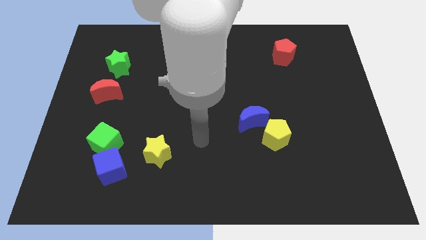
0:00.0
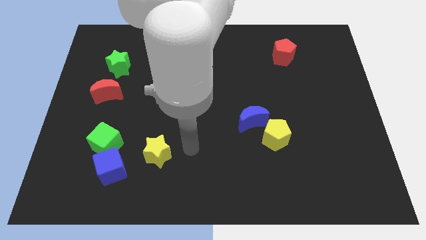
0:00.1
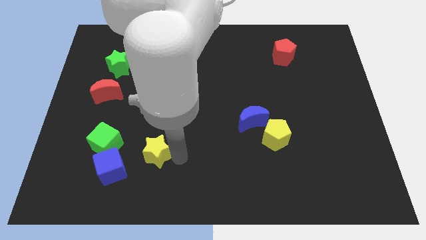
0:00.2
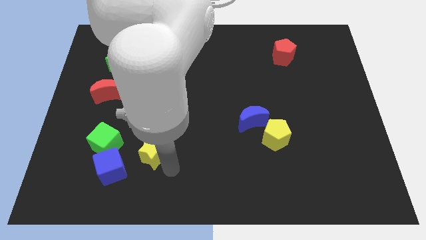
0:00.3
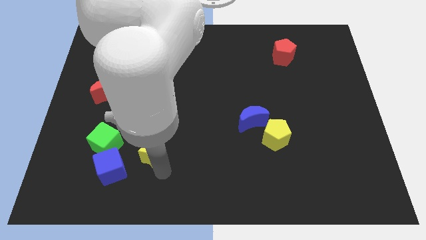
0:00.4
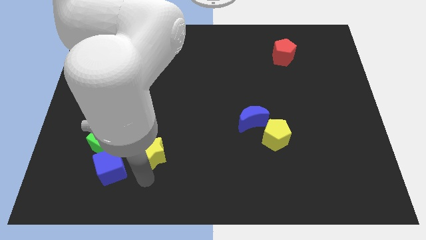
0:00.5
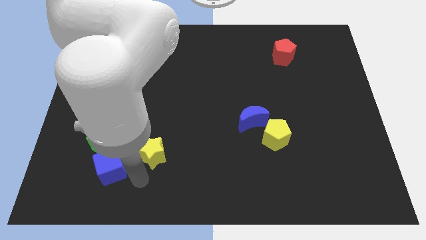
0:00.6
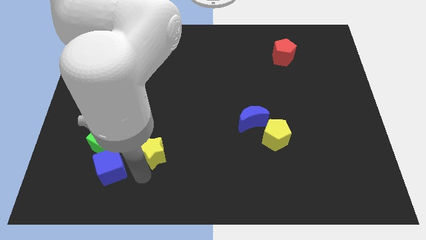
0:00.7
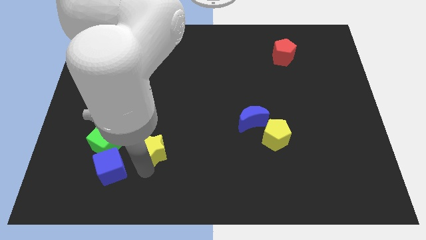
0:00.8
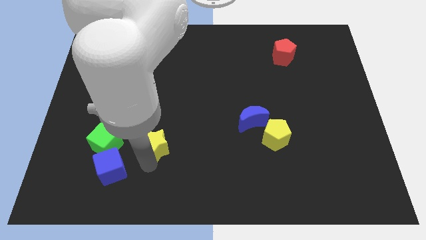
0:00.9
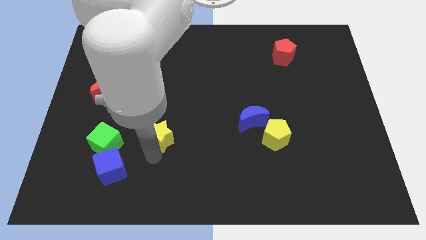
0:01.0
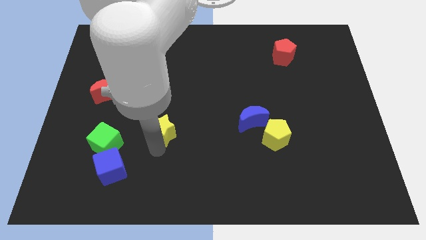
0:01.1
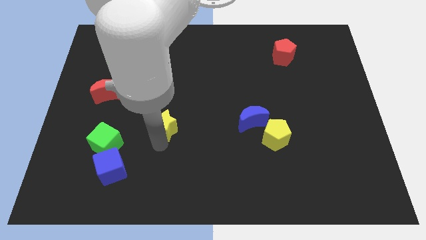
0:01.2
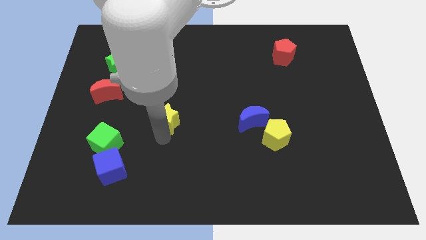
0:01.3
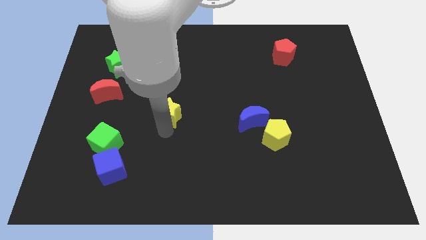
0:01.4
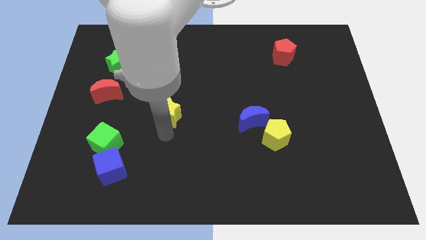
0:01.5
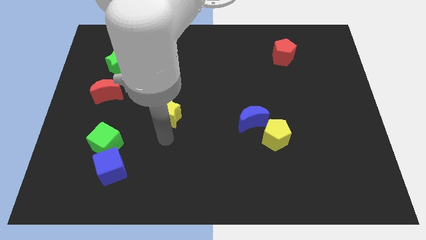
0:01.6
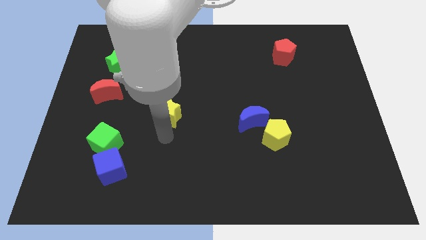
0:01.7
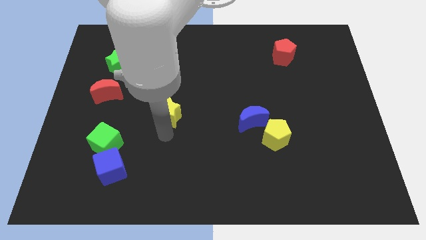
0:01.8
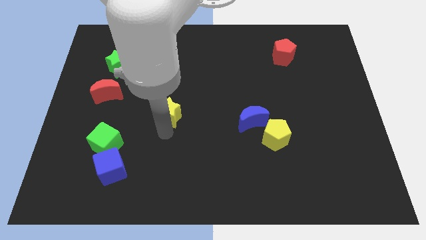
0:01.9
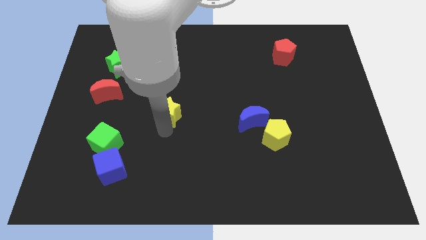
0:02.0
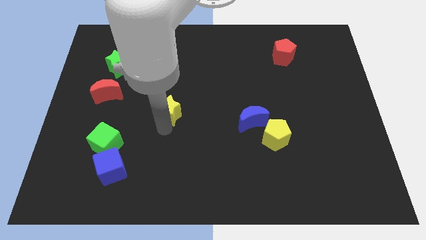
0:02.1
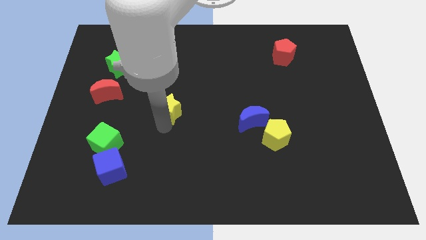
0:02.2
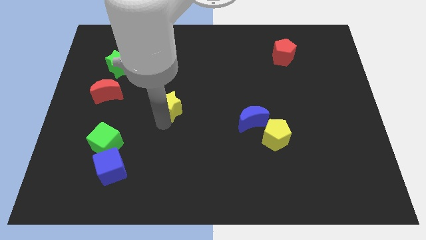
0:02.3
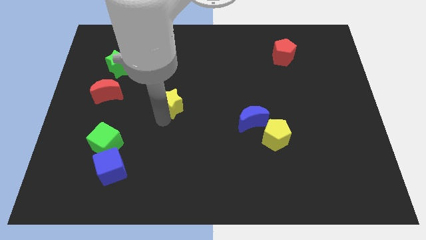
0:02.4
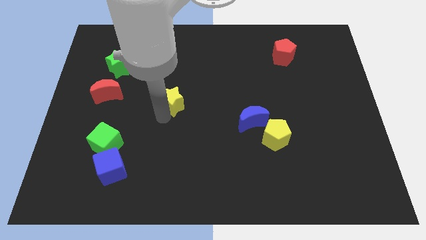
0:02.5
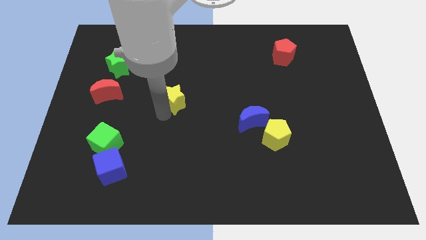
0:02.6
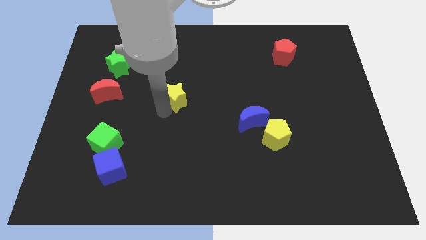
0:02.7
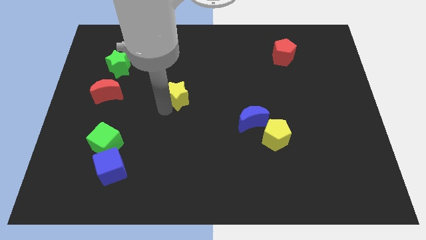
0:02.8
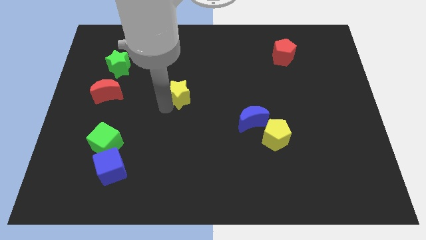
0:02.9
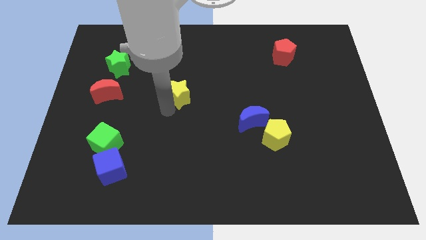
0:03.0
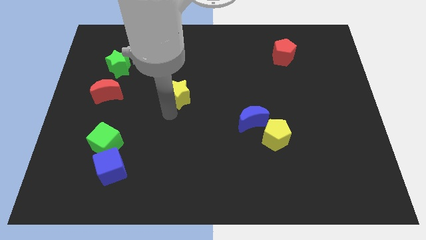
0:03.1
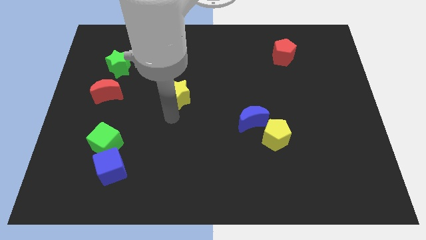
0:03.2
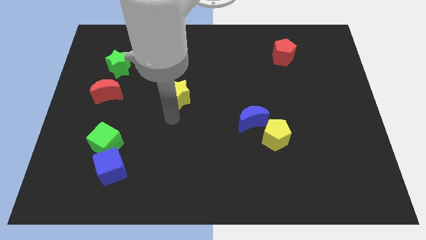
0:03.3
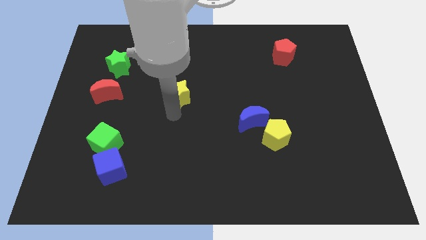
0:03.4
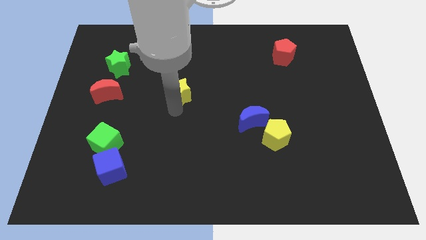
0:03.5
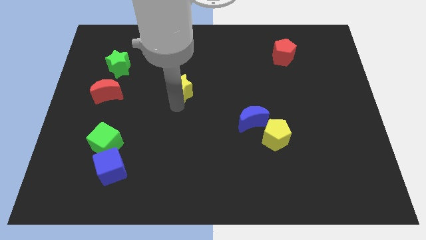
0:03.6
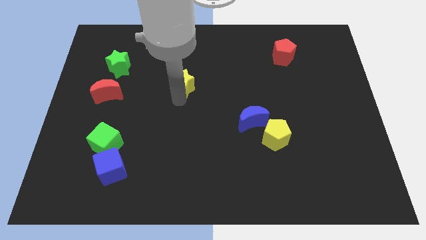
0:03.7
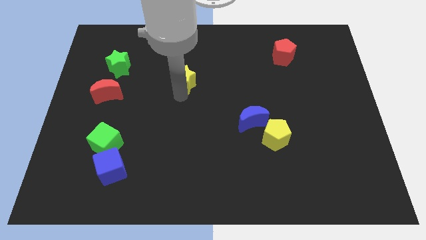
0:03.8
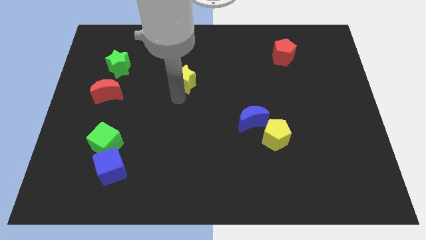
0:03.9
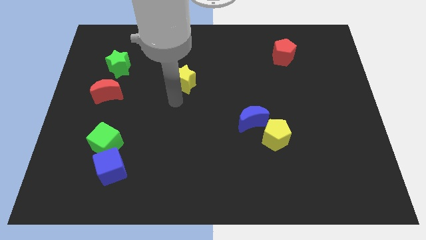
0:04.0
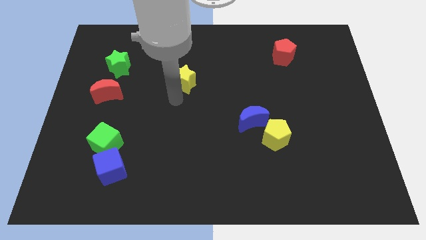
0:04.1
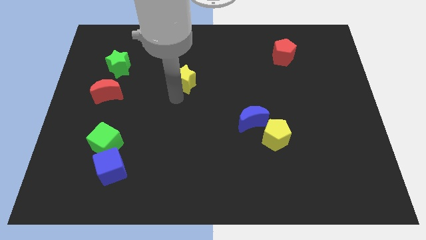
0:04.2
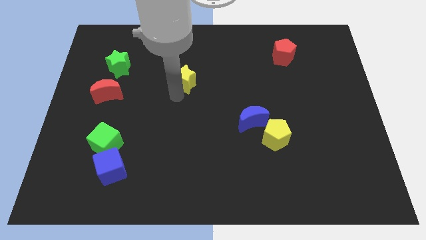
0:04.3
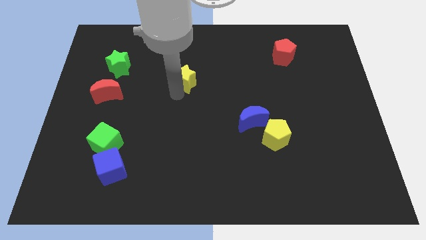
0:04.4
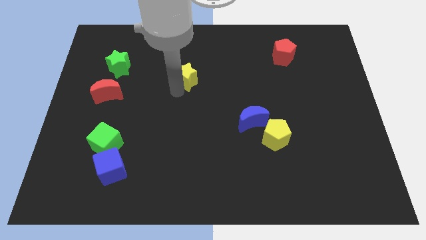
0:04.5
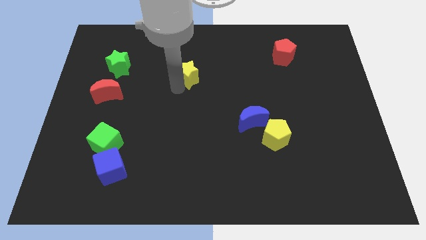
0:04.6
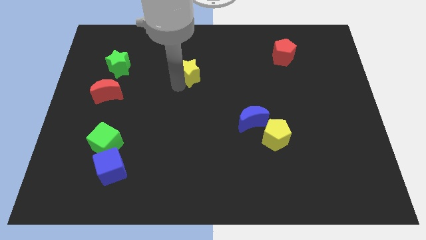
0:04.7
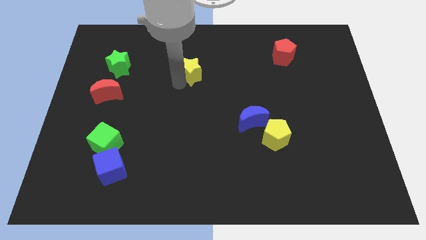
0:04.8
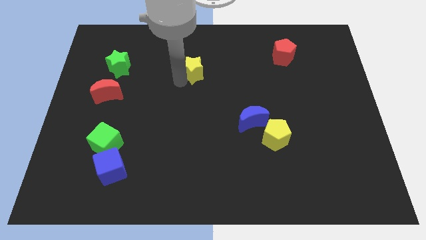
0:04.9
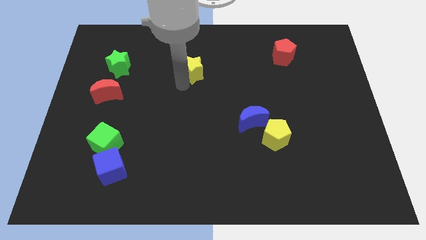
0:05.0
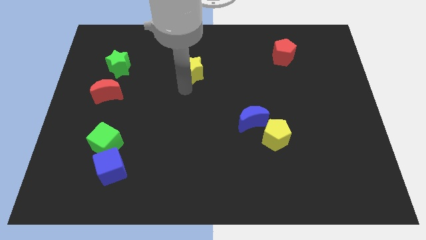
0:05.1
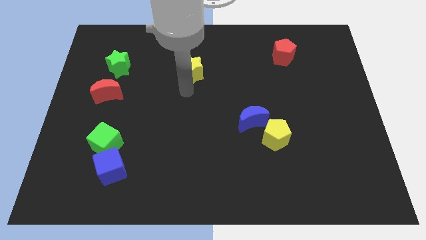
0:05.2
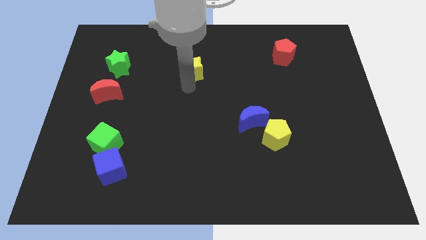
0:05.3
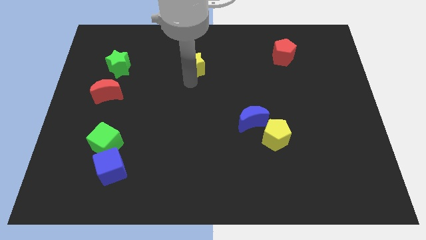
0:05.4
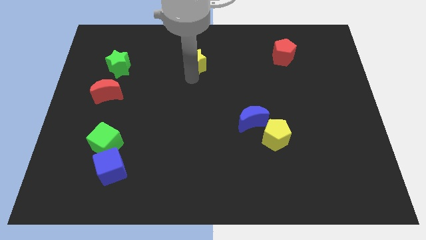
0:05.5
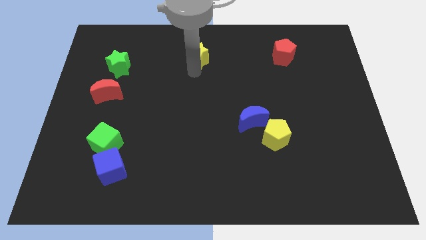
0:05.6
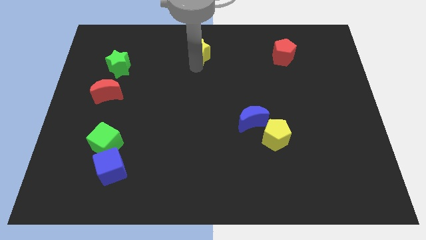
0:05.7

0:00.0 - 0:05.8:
move the yellow star to the towards your base

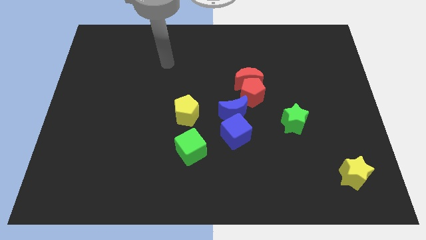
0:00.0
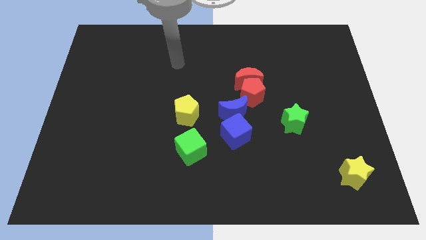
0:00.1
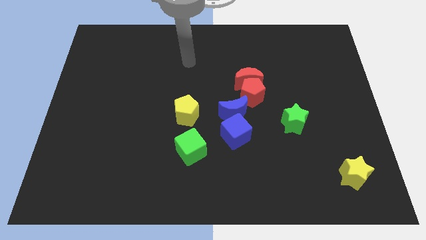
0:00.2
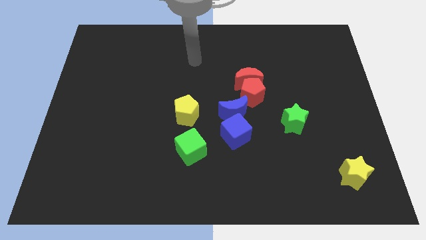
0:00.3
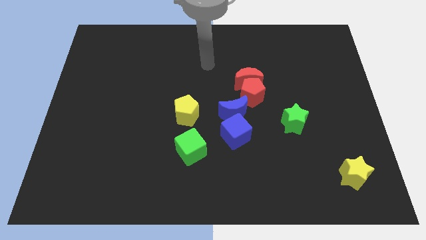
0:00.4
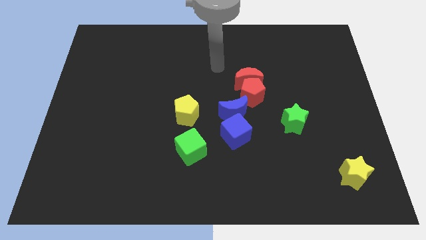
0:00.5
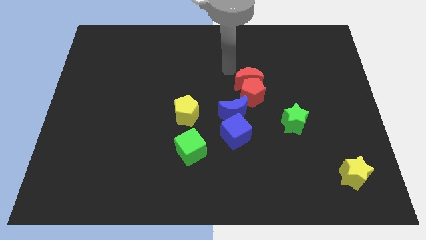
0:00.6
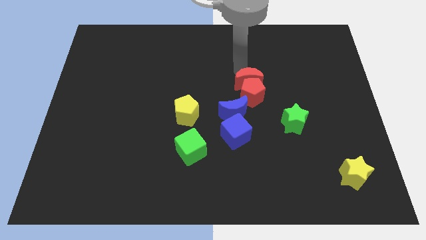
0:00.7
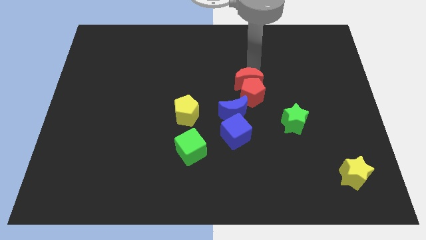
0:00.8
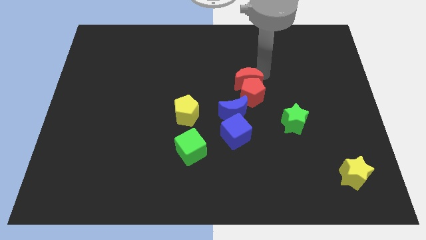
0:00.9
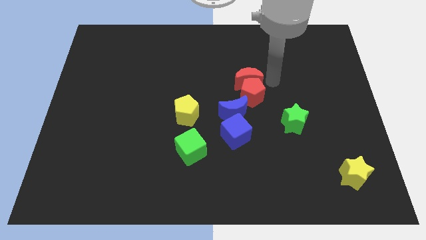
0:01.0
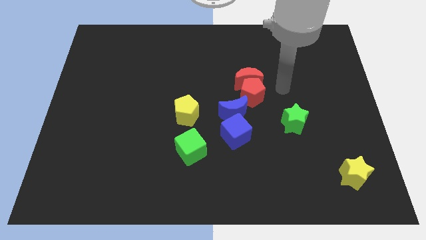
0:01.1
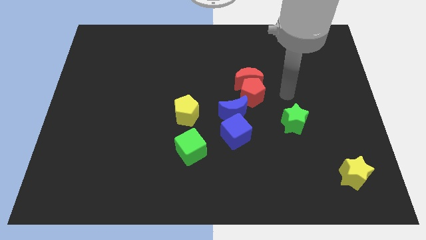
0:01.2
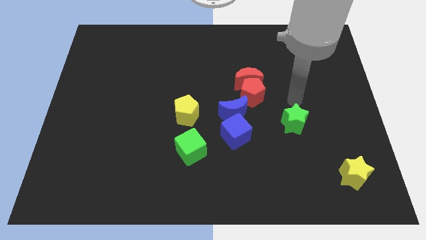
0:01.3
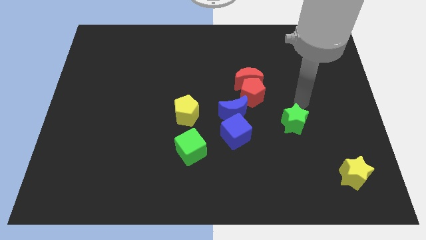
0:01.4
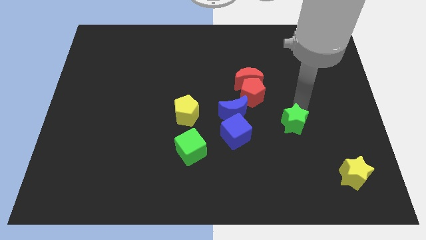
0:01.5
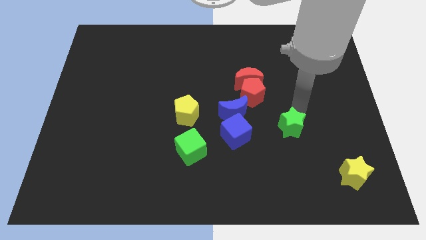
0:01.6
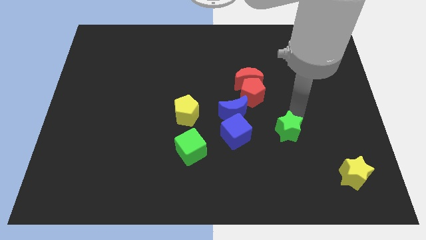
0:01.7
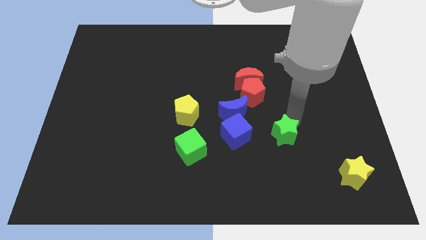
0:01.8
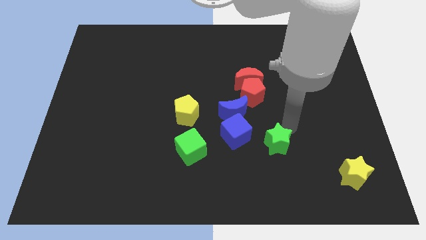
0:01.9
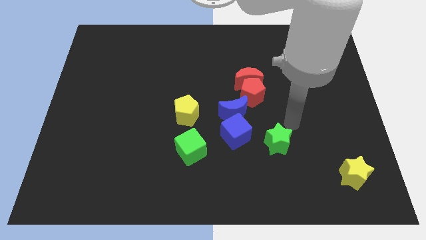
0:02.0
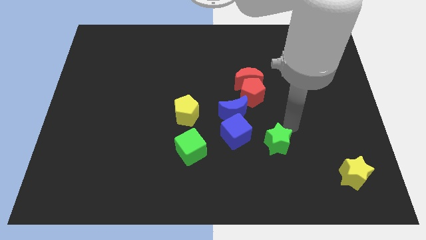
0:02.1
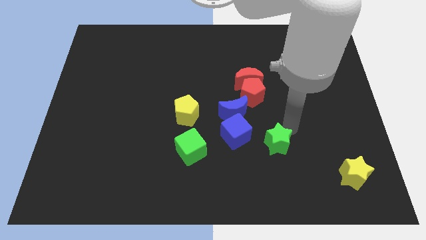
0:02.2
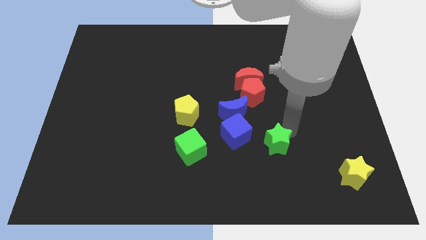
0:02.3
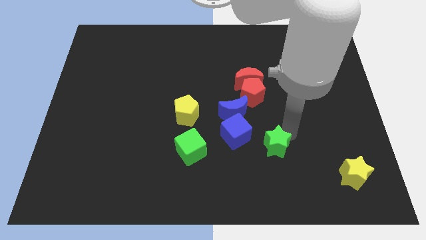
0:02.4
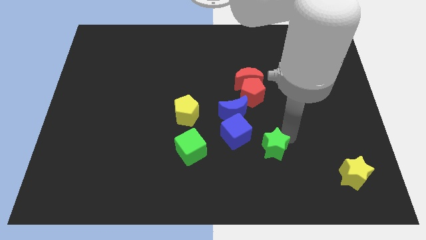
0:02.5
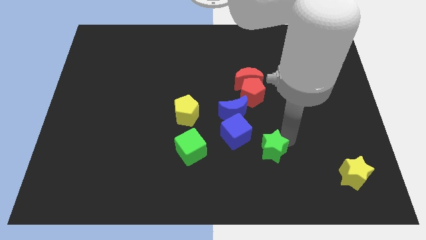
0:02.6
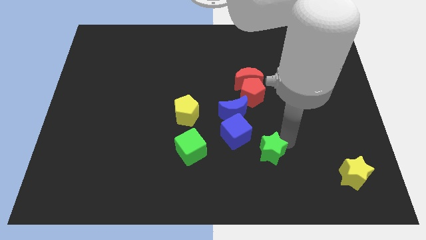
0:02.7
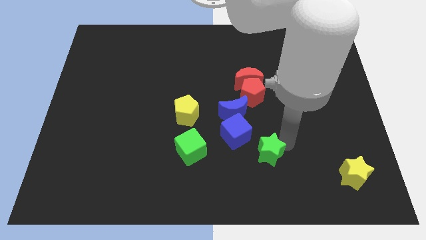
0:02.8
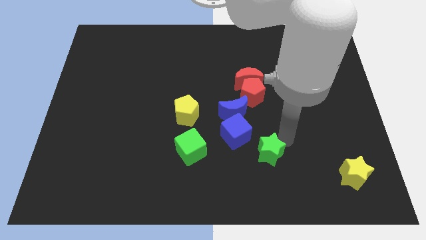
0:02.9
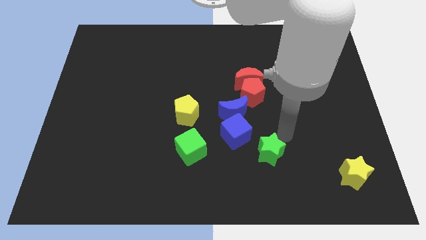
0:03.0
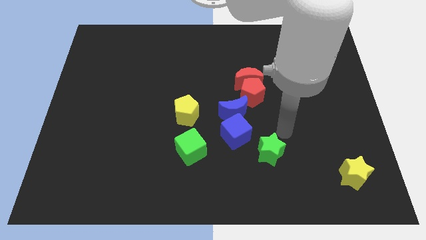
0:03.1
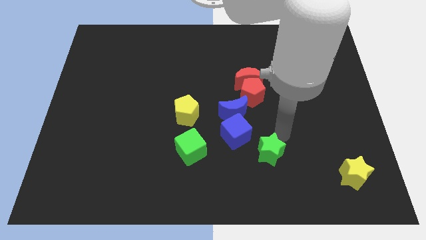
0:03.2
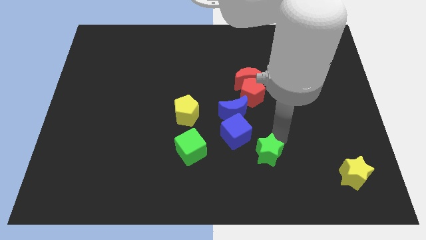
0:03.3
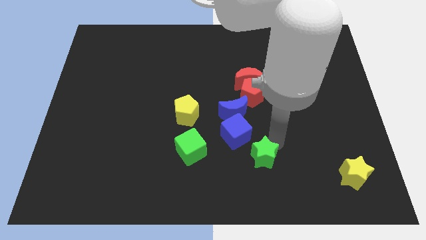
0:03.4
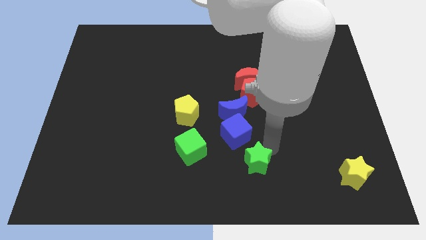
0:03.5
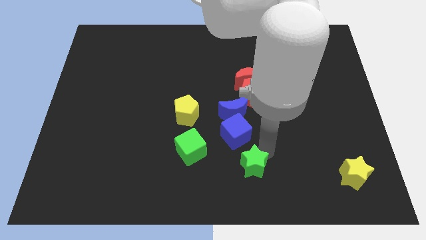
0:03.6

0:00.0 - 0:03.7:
slide the green star to the bottom side
